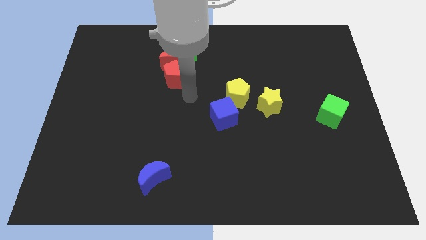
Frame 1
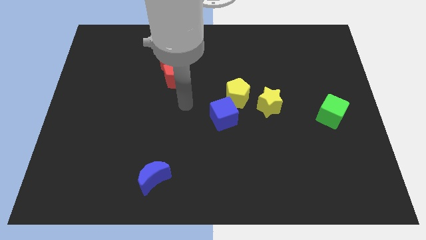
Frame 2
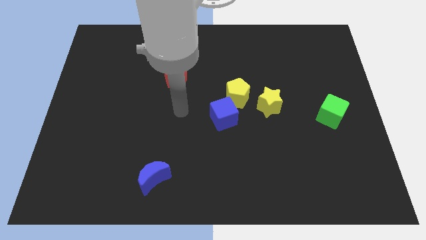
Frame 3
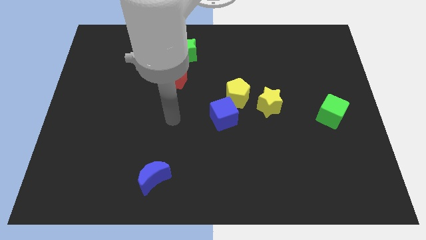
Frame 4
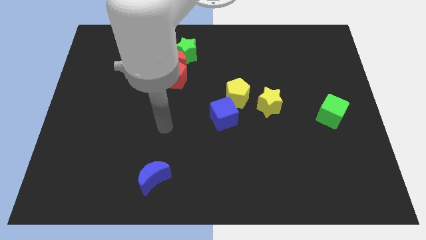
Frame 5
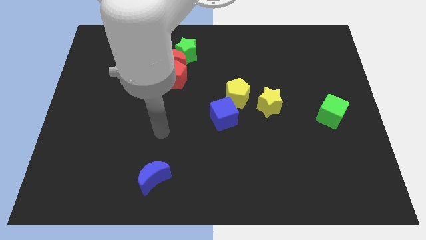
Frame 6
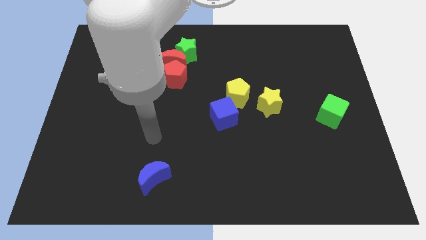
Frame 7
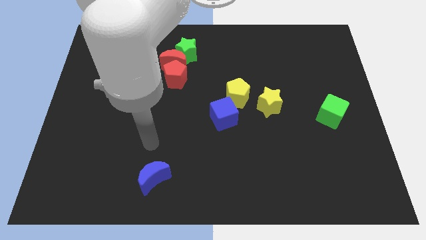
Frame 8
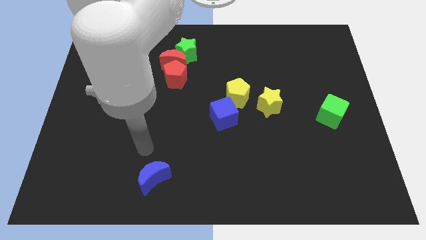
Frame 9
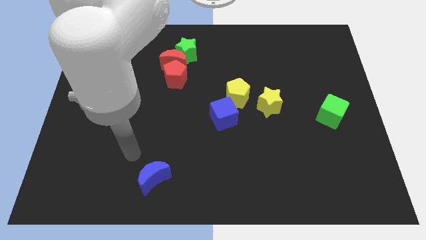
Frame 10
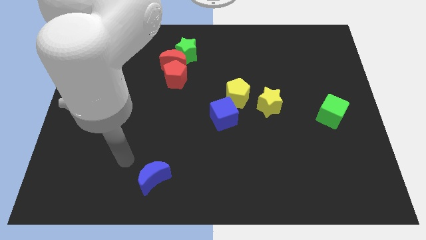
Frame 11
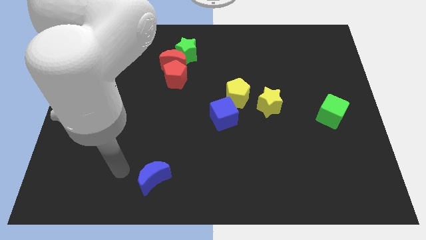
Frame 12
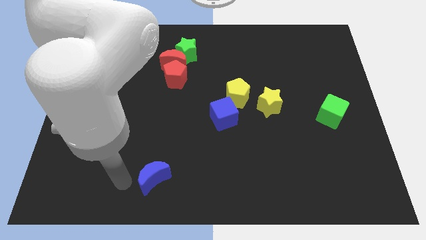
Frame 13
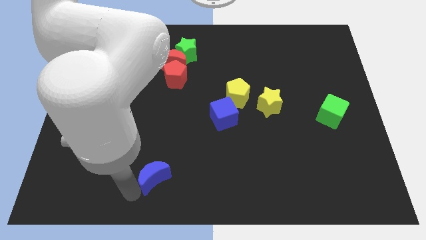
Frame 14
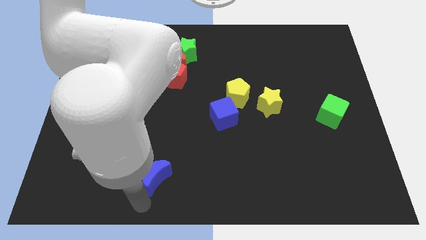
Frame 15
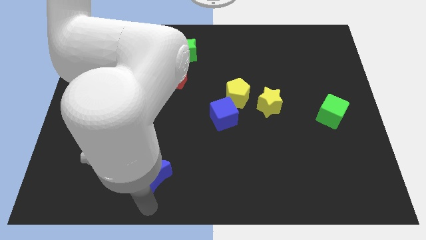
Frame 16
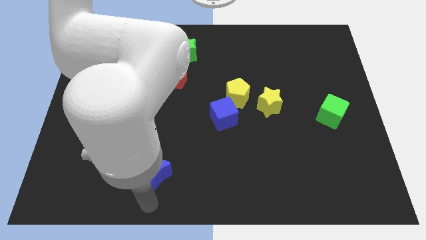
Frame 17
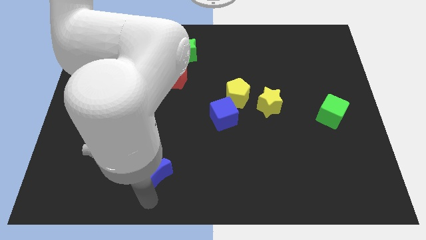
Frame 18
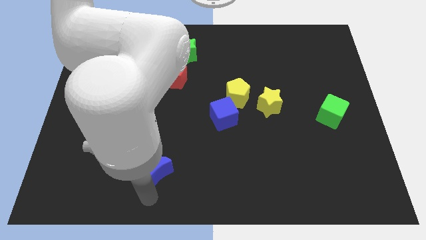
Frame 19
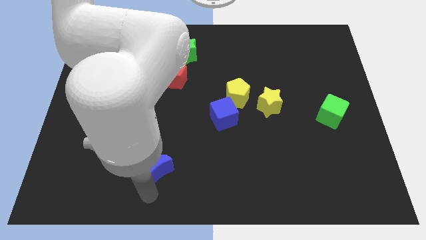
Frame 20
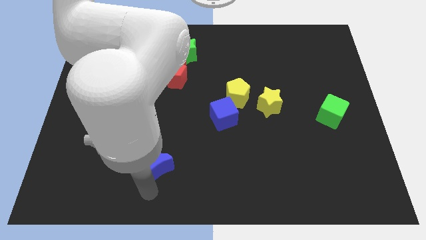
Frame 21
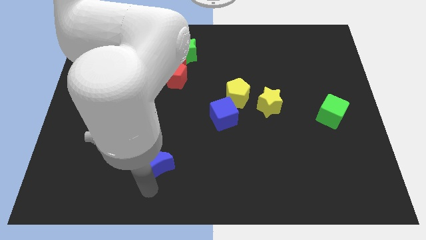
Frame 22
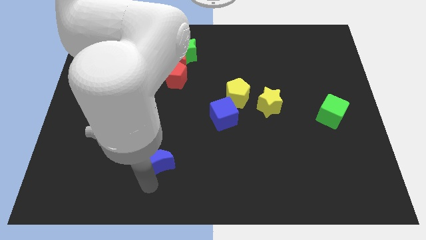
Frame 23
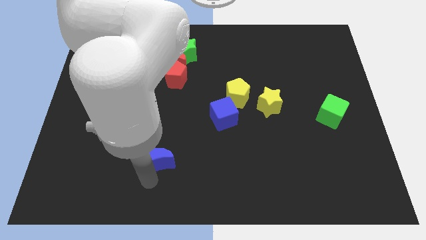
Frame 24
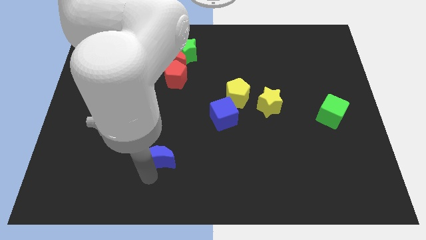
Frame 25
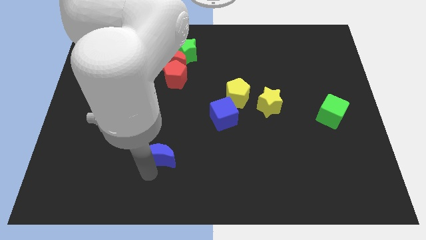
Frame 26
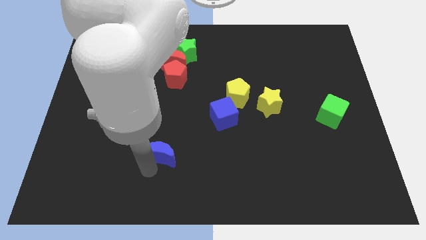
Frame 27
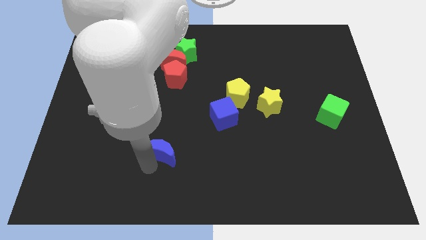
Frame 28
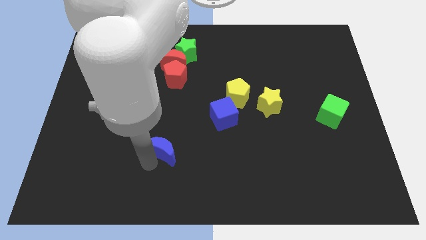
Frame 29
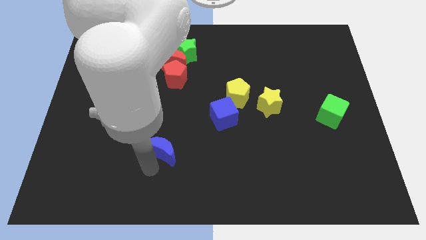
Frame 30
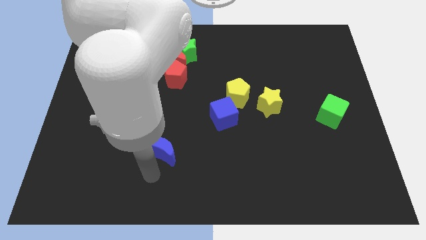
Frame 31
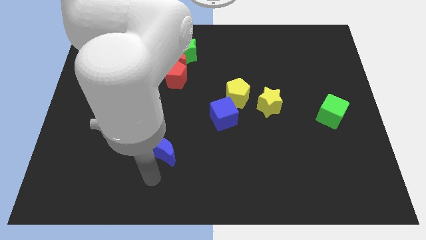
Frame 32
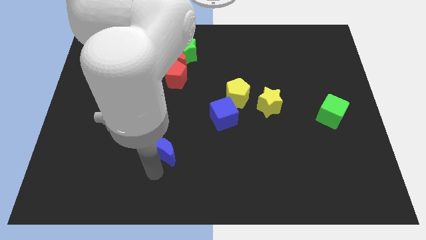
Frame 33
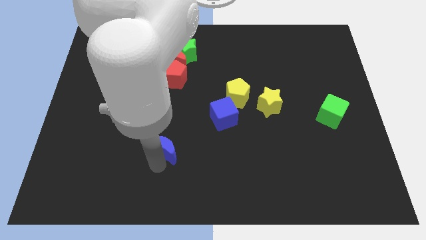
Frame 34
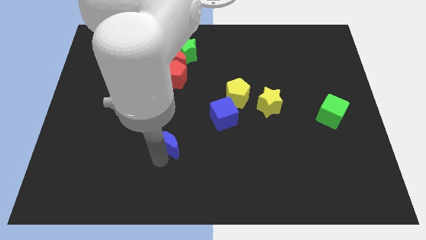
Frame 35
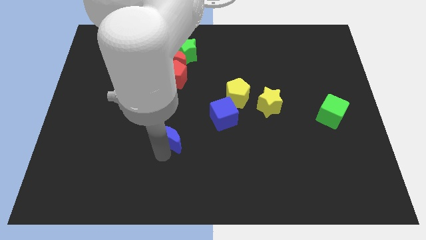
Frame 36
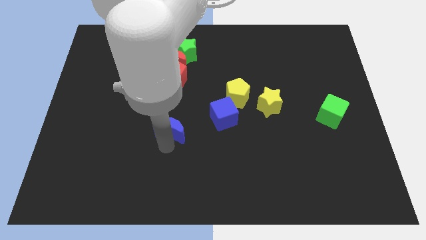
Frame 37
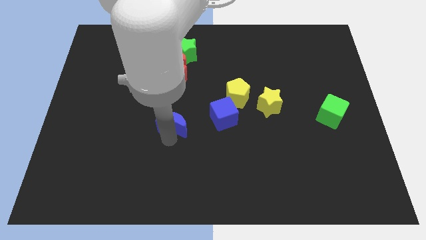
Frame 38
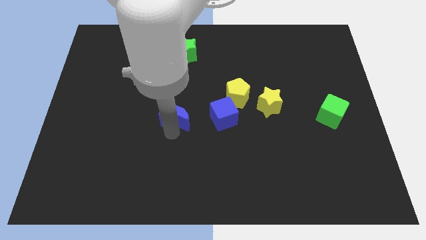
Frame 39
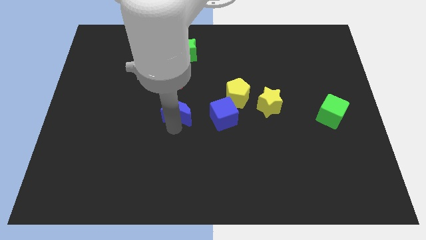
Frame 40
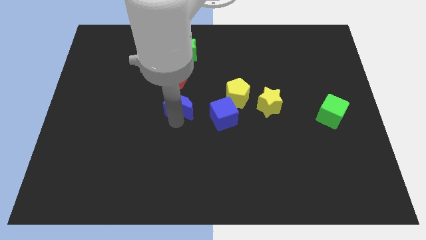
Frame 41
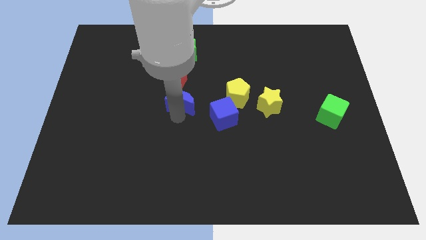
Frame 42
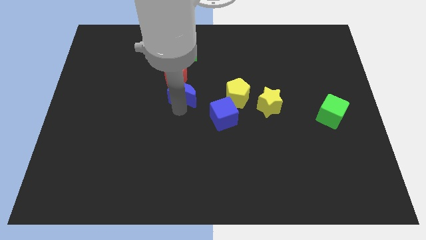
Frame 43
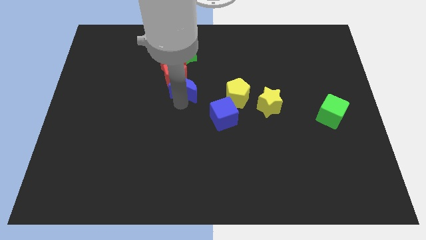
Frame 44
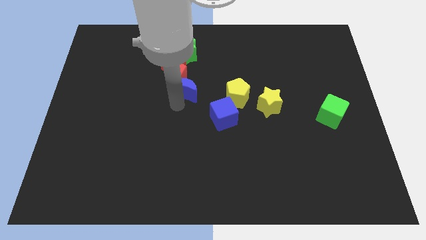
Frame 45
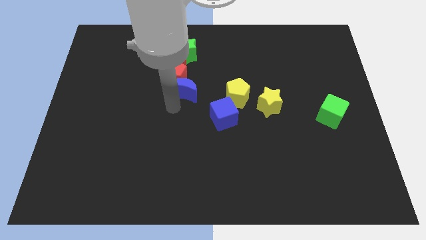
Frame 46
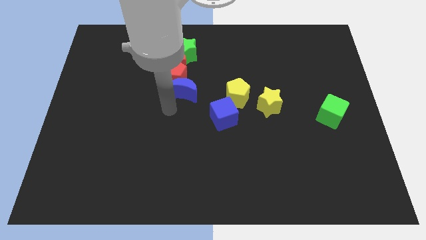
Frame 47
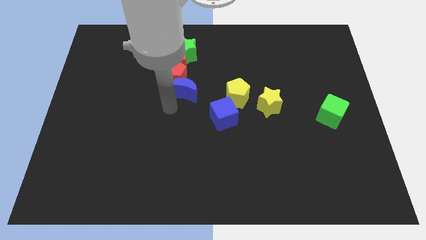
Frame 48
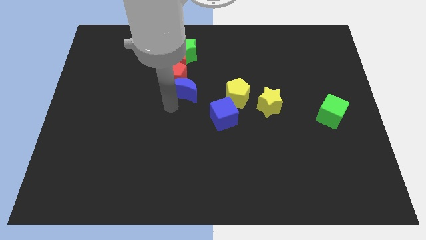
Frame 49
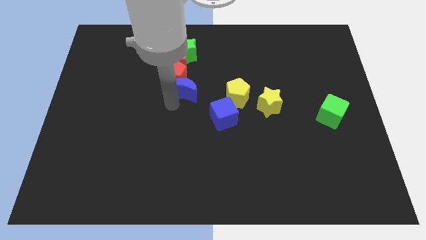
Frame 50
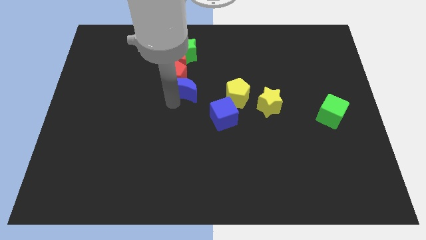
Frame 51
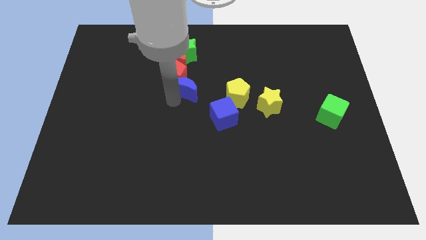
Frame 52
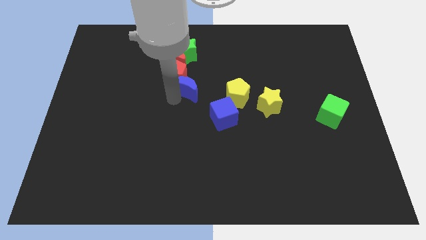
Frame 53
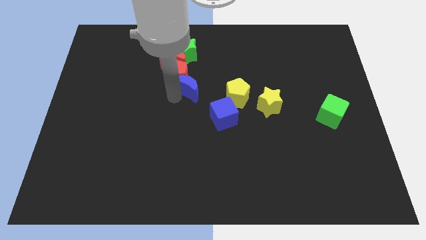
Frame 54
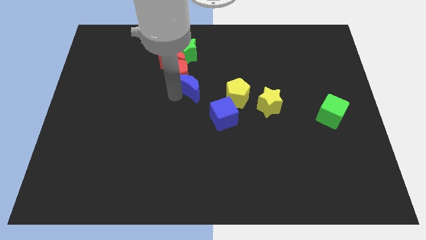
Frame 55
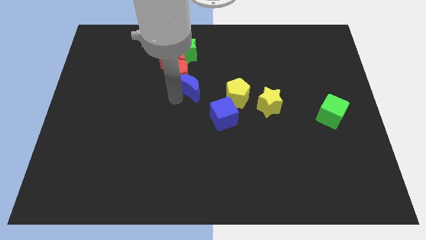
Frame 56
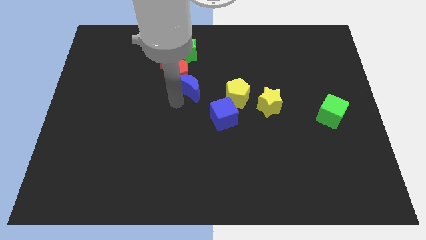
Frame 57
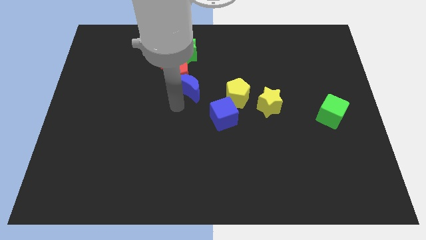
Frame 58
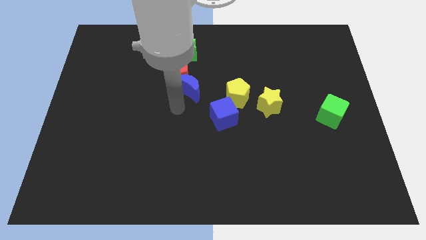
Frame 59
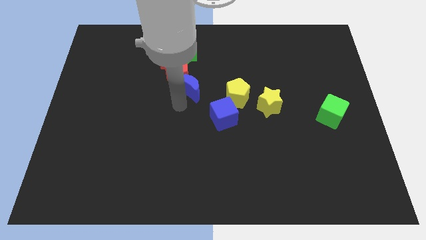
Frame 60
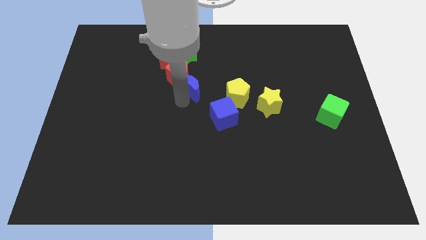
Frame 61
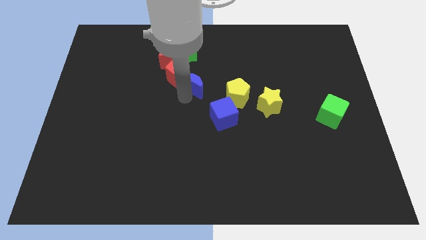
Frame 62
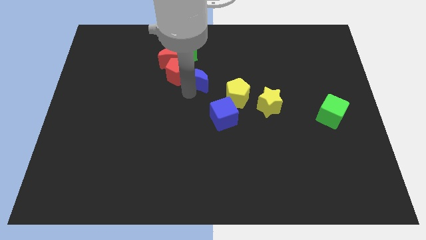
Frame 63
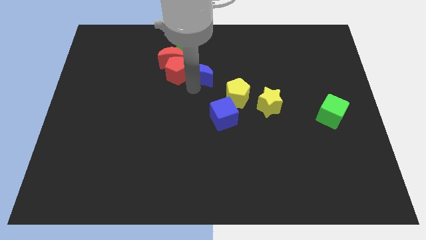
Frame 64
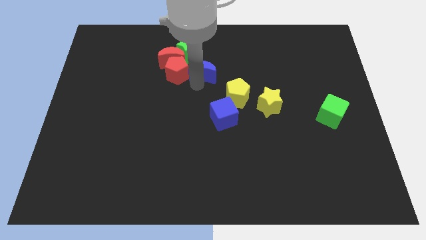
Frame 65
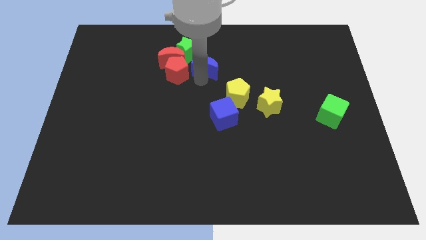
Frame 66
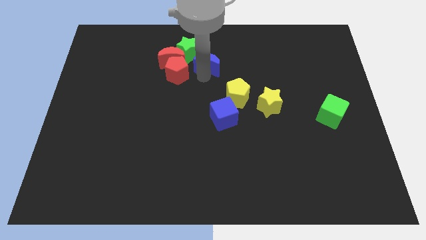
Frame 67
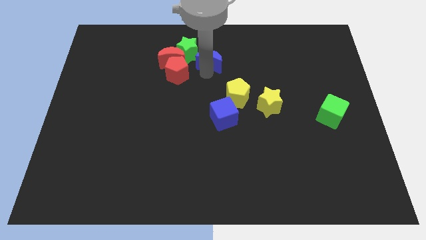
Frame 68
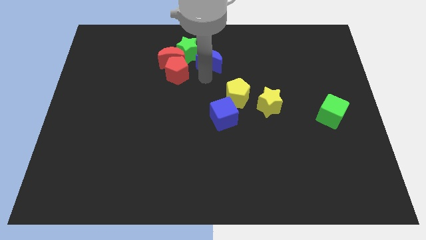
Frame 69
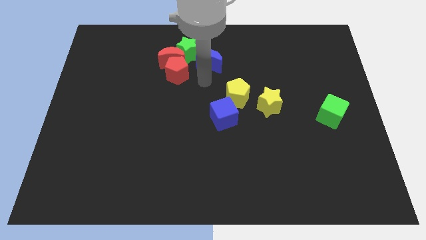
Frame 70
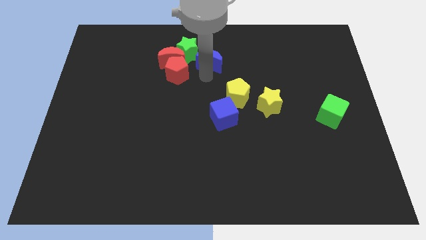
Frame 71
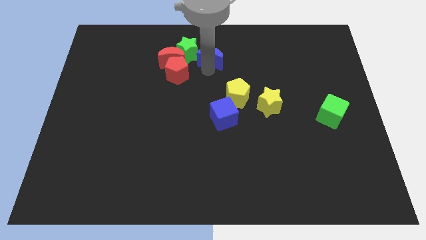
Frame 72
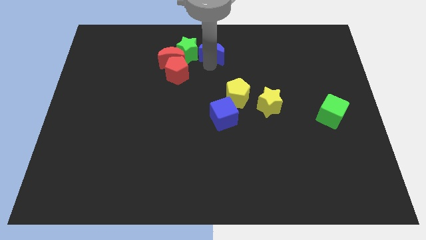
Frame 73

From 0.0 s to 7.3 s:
move the blue moon to the top
